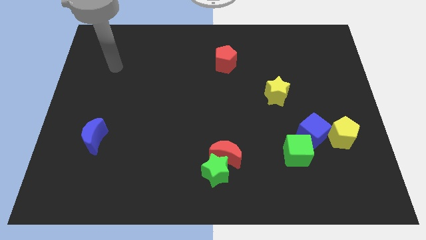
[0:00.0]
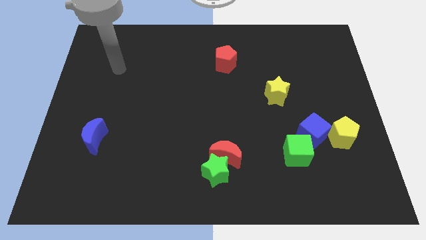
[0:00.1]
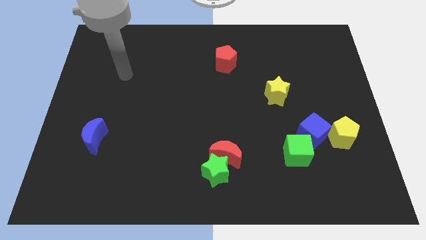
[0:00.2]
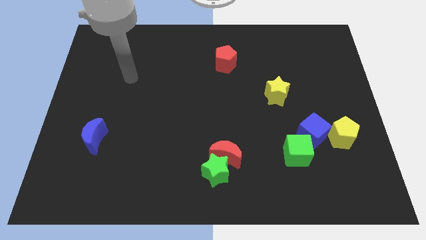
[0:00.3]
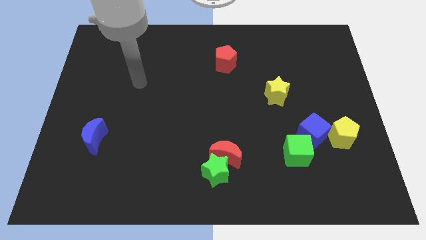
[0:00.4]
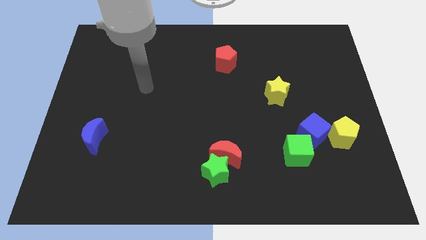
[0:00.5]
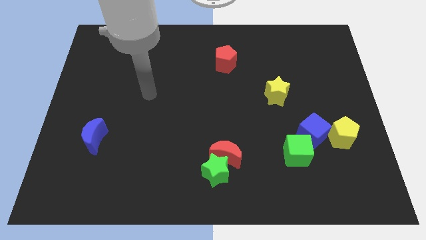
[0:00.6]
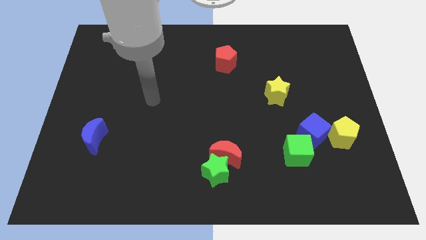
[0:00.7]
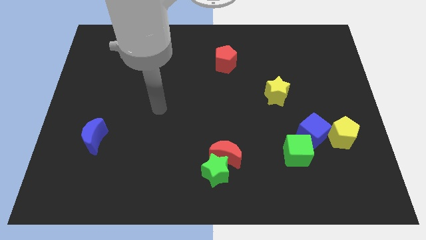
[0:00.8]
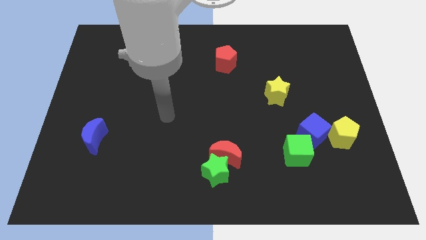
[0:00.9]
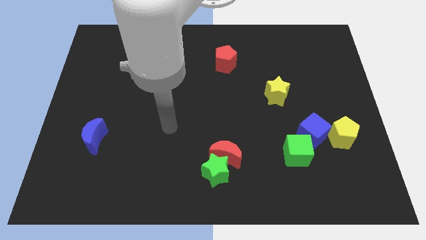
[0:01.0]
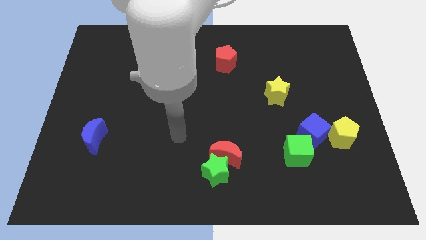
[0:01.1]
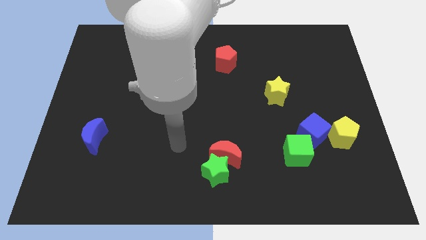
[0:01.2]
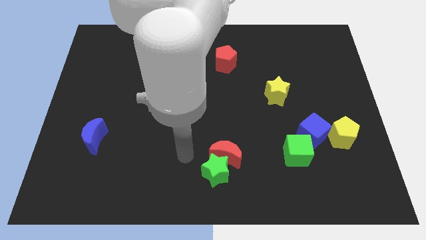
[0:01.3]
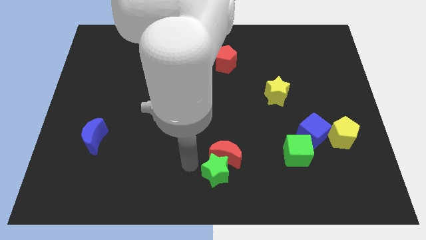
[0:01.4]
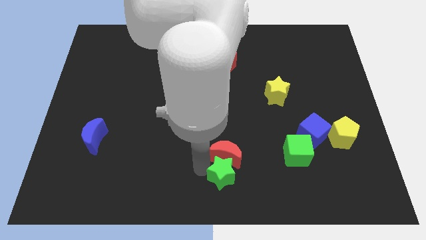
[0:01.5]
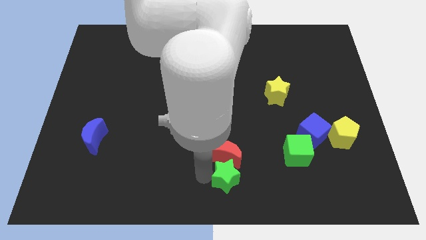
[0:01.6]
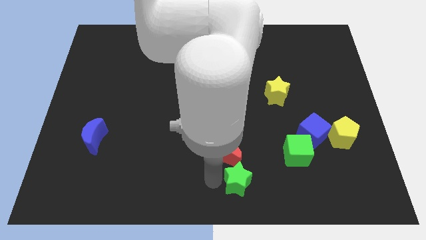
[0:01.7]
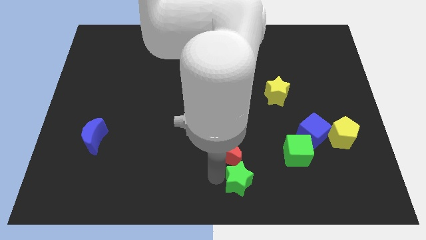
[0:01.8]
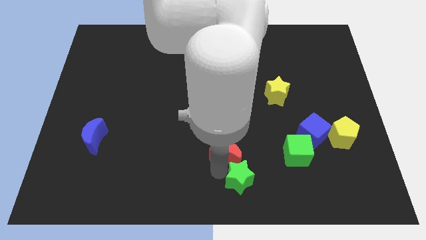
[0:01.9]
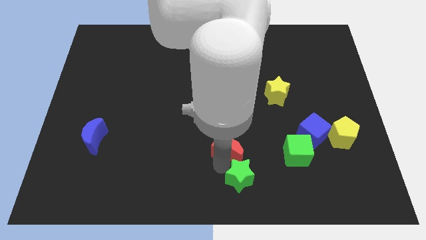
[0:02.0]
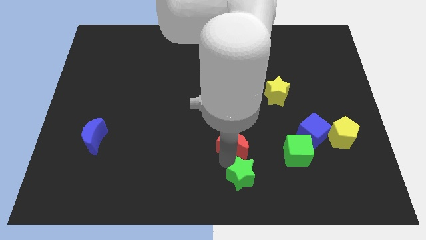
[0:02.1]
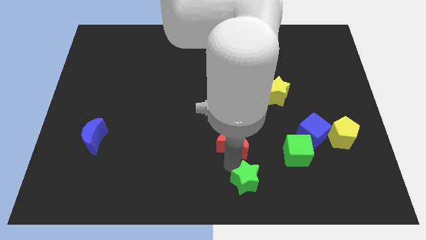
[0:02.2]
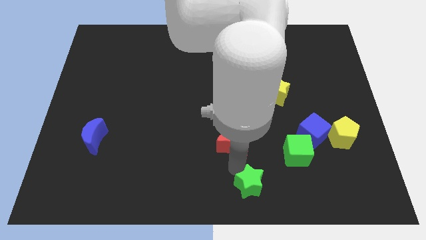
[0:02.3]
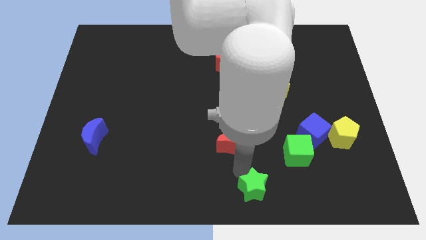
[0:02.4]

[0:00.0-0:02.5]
pull the red moon apart from the green star

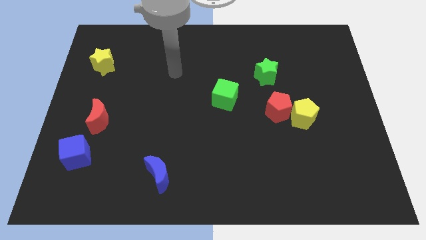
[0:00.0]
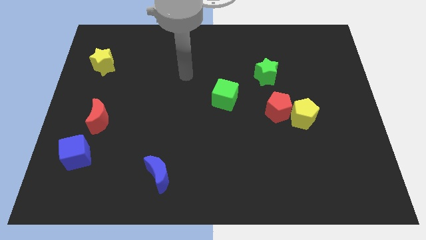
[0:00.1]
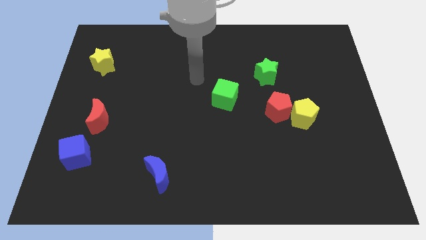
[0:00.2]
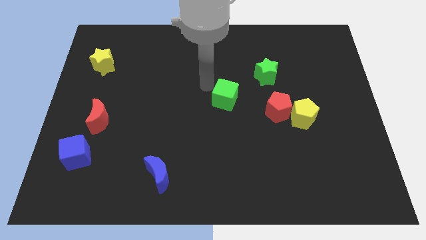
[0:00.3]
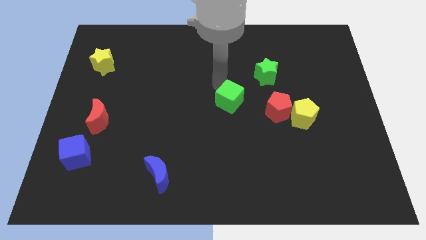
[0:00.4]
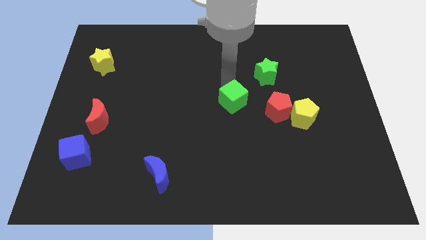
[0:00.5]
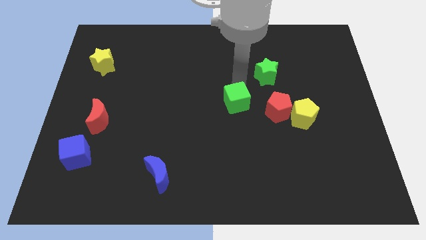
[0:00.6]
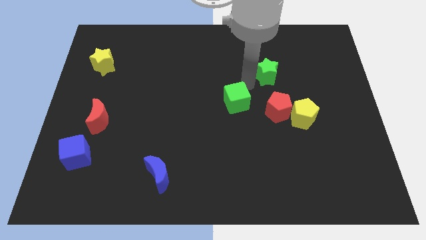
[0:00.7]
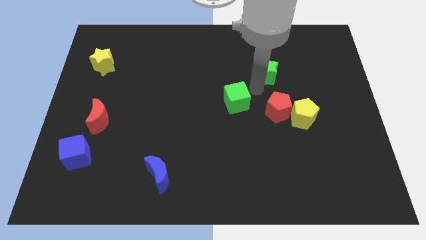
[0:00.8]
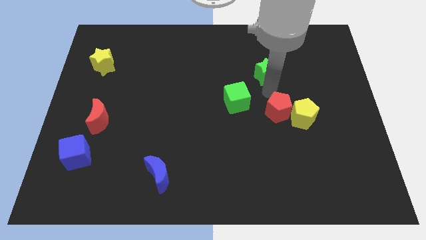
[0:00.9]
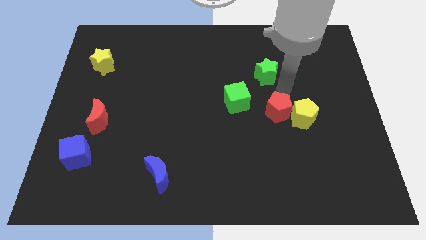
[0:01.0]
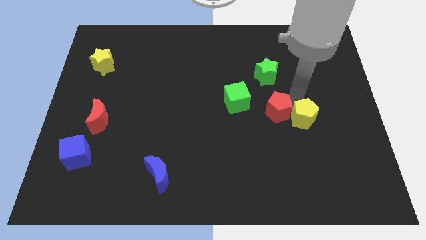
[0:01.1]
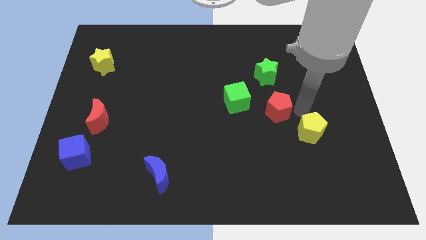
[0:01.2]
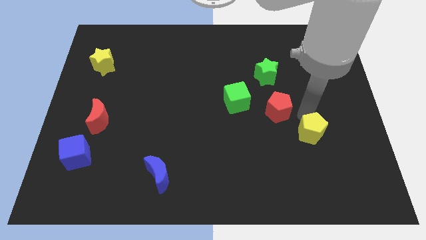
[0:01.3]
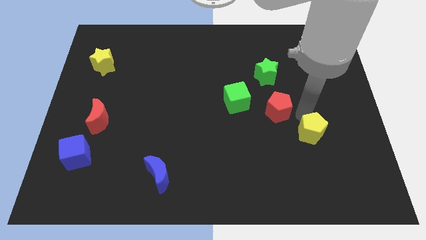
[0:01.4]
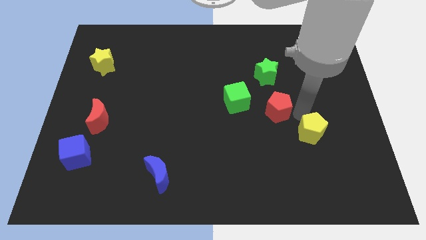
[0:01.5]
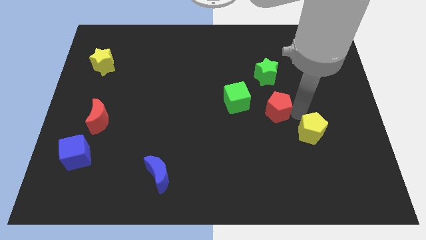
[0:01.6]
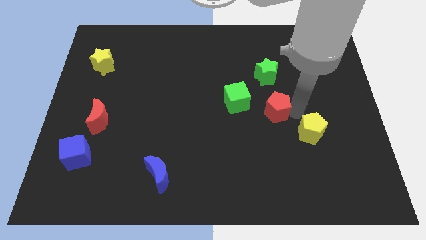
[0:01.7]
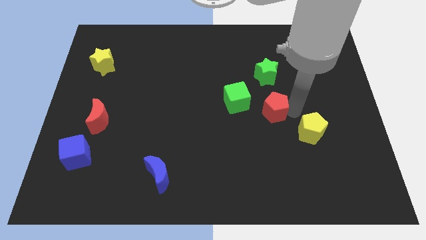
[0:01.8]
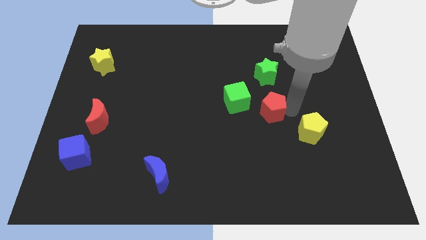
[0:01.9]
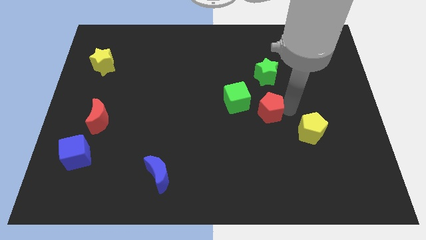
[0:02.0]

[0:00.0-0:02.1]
separate the red pentagon from the yellow pentagon

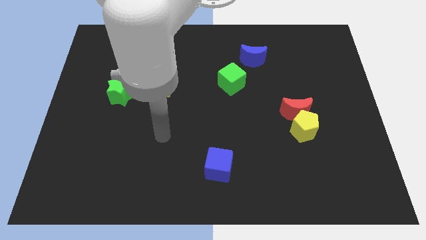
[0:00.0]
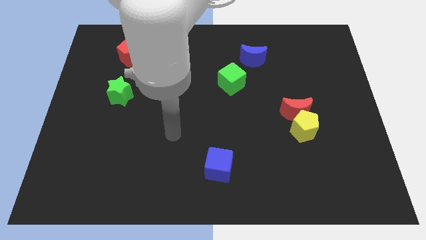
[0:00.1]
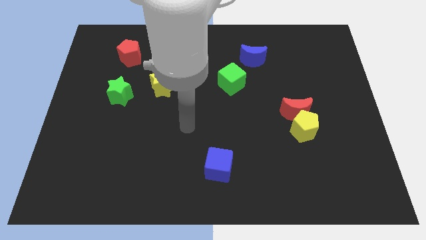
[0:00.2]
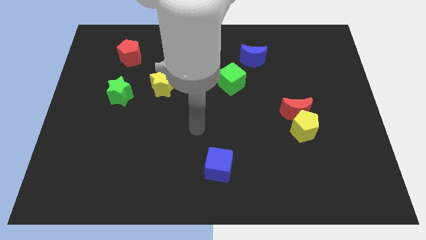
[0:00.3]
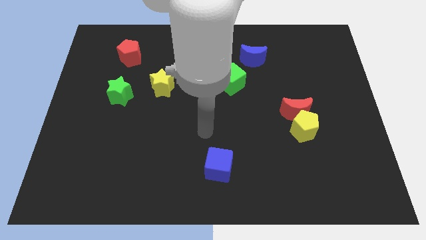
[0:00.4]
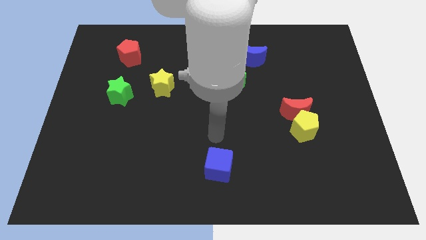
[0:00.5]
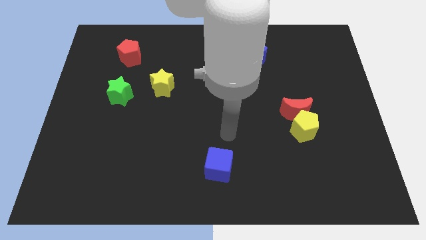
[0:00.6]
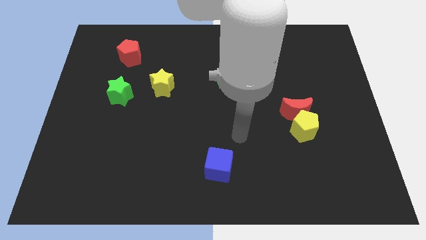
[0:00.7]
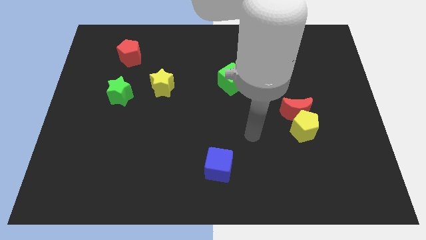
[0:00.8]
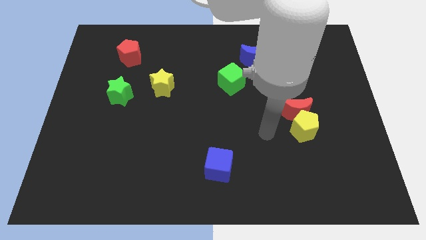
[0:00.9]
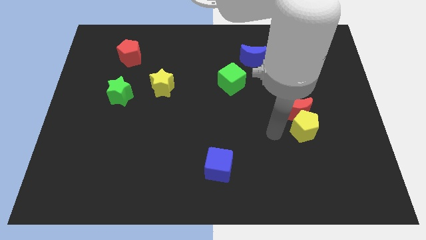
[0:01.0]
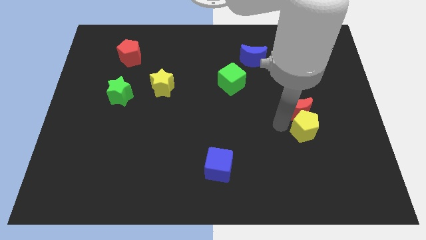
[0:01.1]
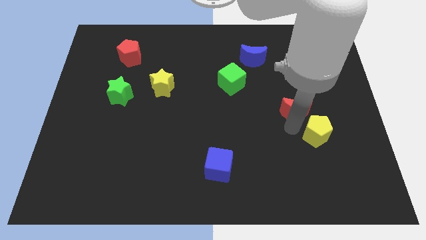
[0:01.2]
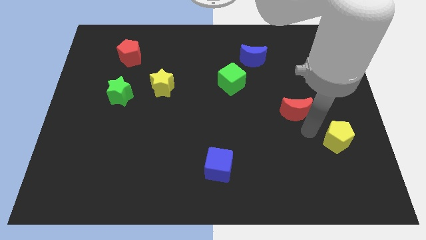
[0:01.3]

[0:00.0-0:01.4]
move the red moon away from the yellow pentagon

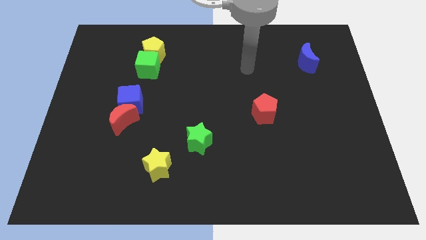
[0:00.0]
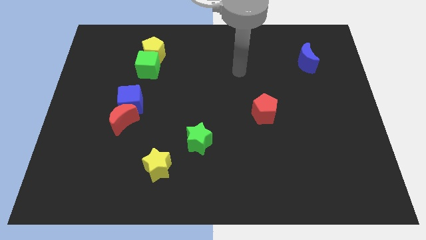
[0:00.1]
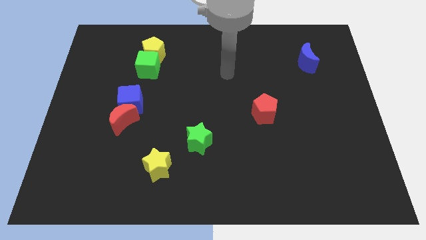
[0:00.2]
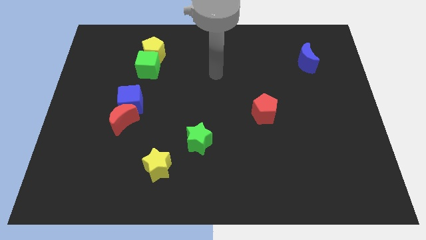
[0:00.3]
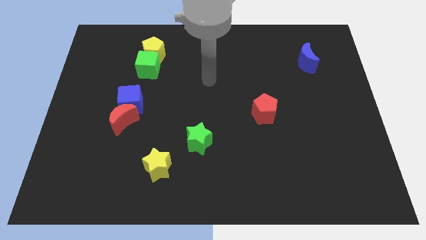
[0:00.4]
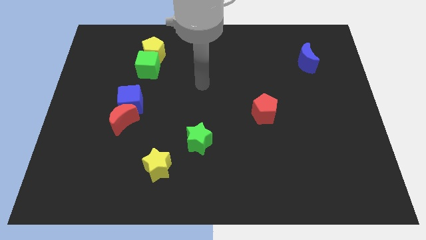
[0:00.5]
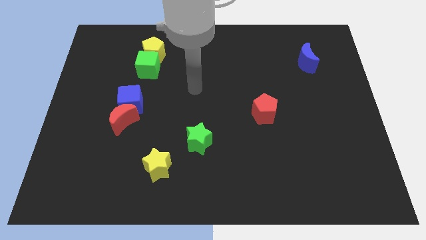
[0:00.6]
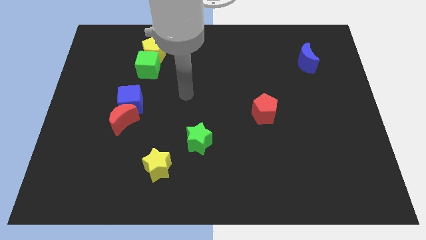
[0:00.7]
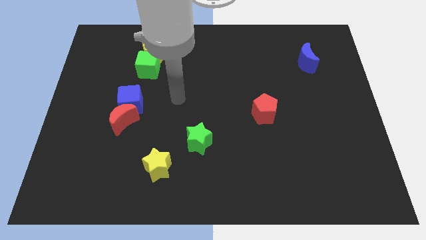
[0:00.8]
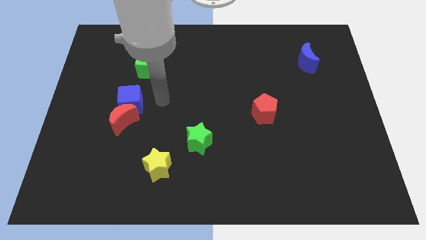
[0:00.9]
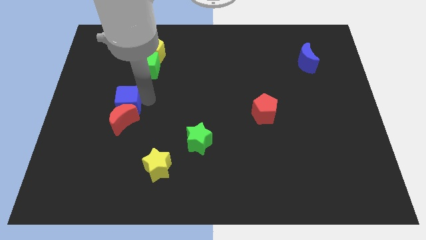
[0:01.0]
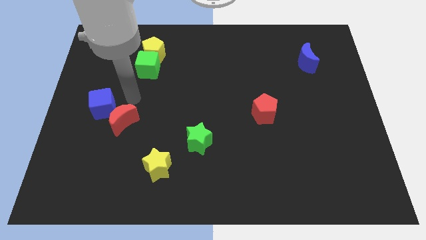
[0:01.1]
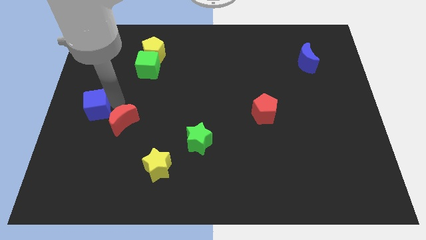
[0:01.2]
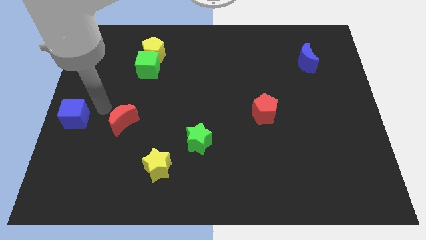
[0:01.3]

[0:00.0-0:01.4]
separate the red moon from the blue cube

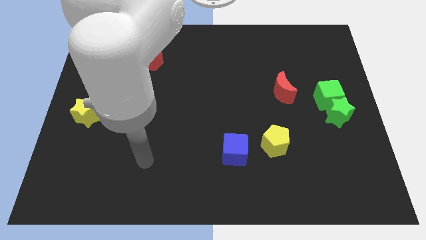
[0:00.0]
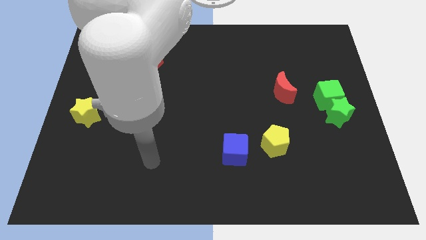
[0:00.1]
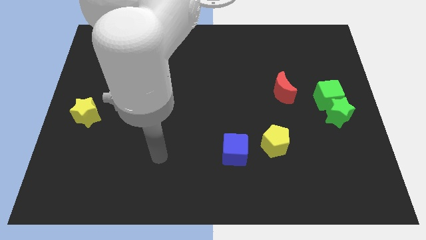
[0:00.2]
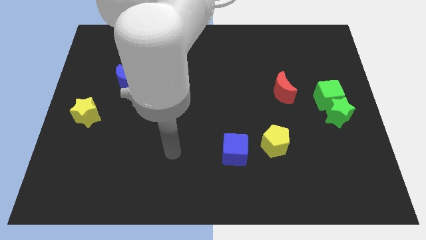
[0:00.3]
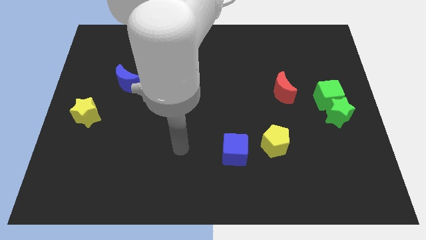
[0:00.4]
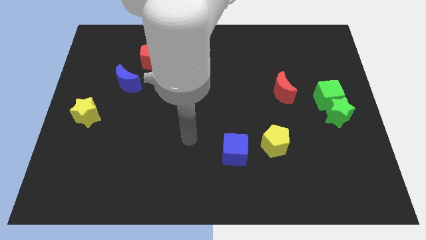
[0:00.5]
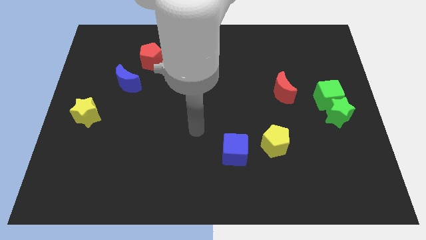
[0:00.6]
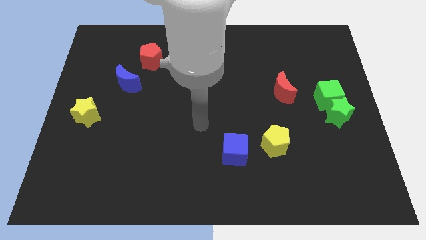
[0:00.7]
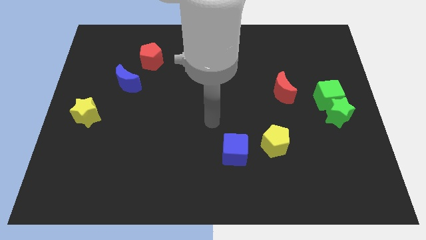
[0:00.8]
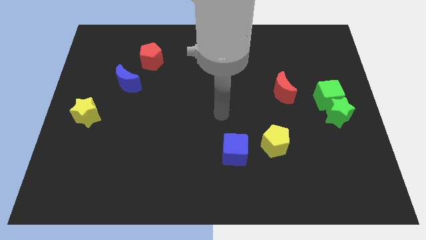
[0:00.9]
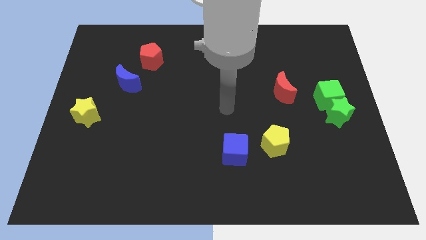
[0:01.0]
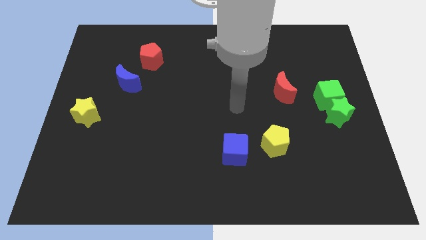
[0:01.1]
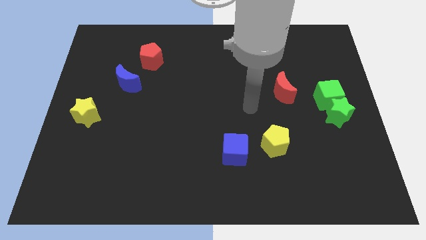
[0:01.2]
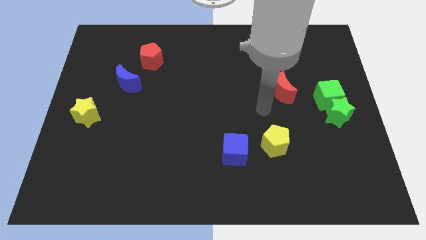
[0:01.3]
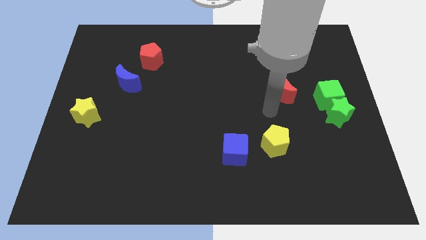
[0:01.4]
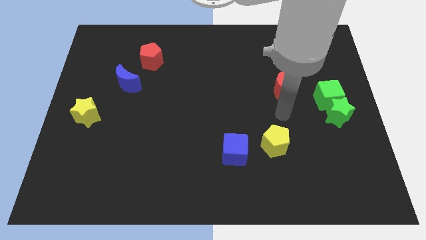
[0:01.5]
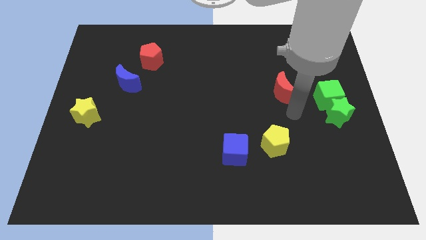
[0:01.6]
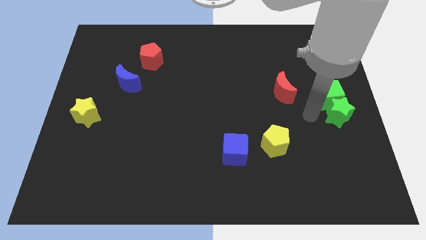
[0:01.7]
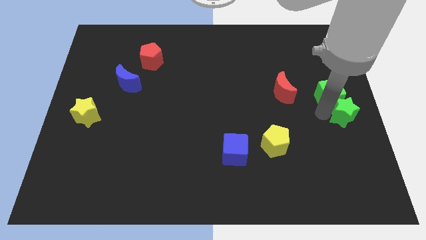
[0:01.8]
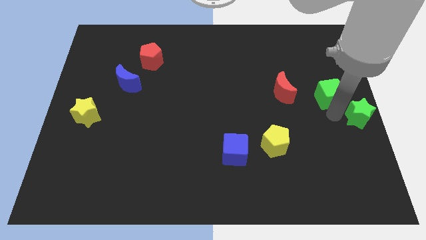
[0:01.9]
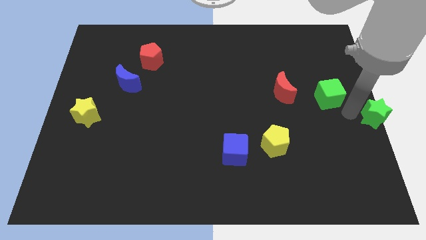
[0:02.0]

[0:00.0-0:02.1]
separate the green cube from the green star
